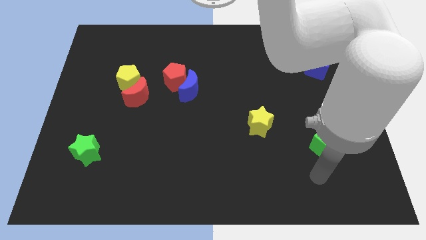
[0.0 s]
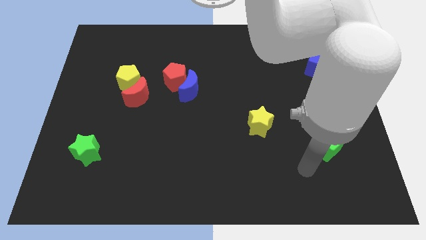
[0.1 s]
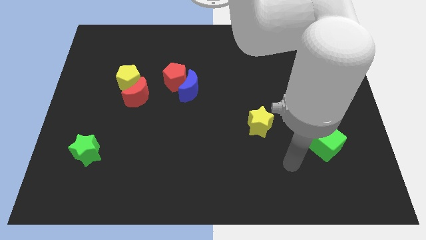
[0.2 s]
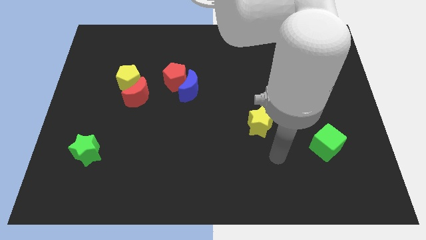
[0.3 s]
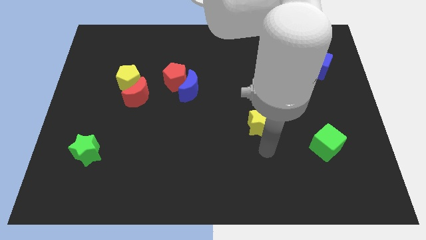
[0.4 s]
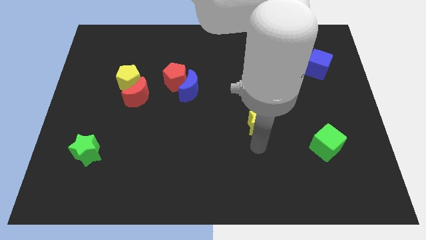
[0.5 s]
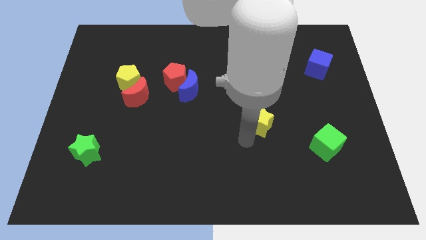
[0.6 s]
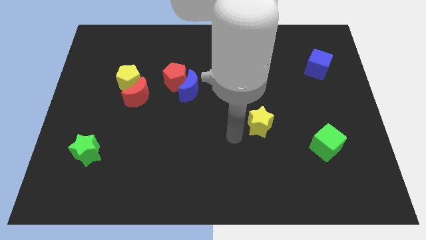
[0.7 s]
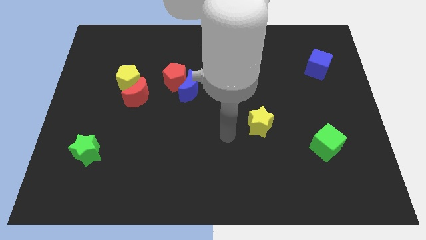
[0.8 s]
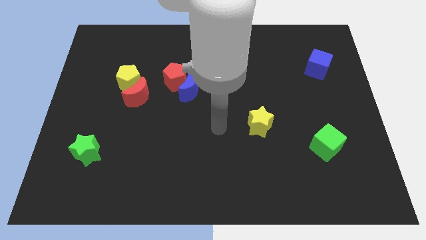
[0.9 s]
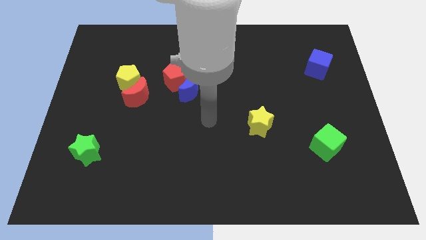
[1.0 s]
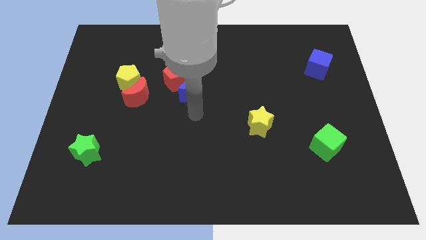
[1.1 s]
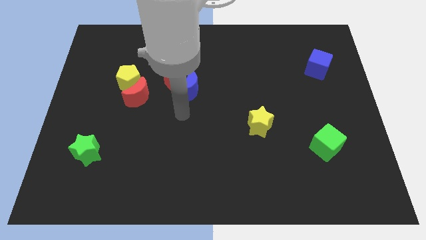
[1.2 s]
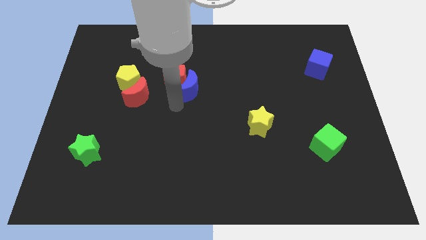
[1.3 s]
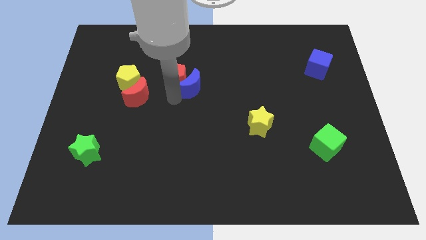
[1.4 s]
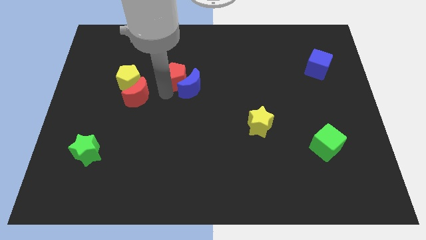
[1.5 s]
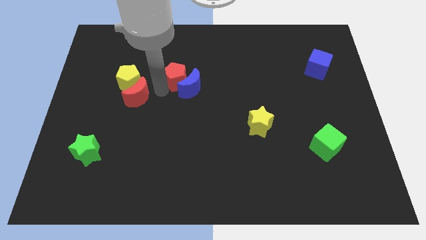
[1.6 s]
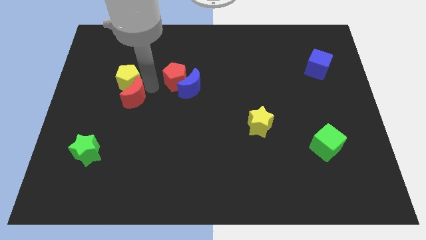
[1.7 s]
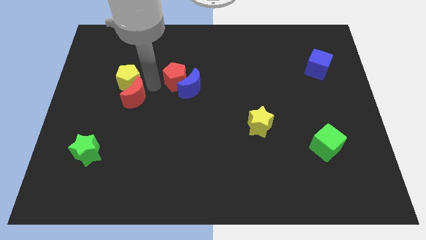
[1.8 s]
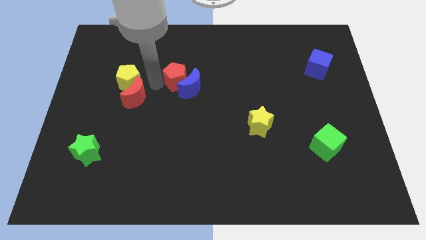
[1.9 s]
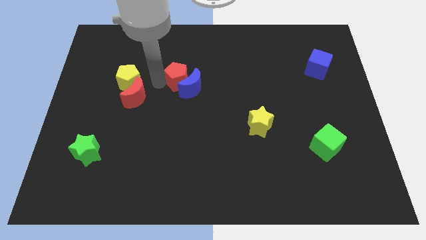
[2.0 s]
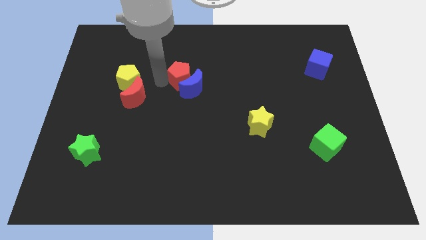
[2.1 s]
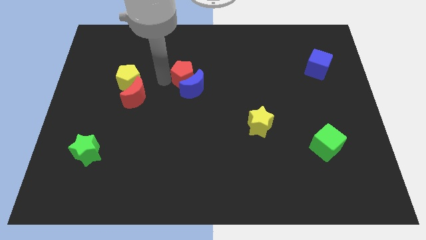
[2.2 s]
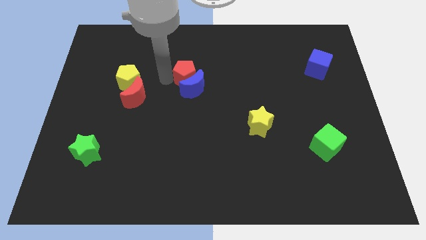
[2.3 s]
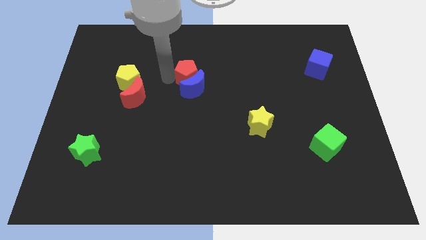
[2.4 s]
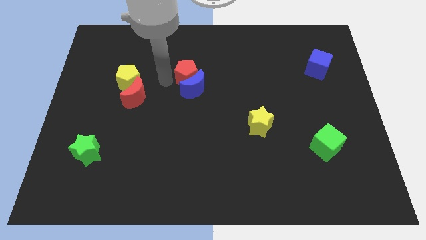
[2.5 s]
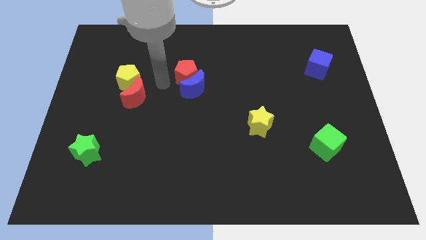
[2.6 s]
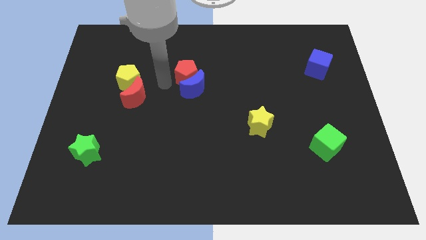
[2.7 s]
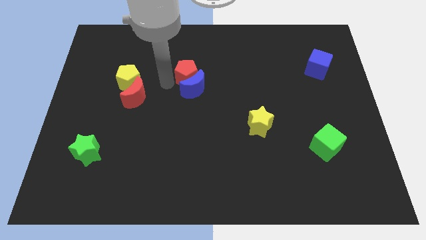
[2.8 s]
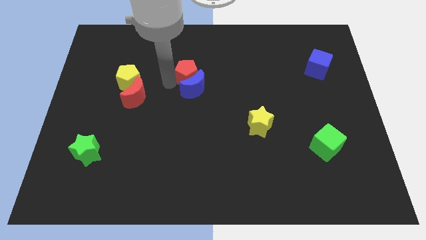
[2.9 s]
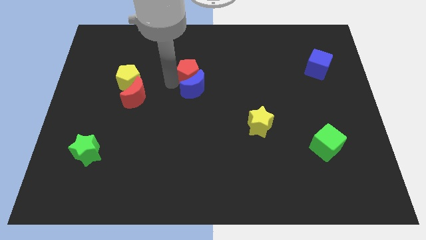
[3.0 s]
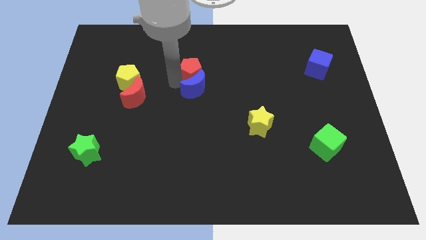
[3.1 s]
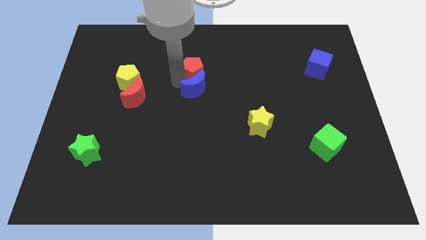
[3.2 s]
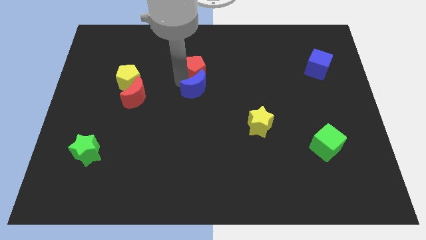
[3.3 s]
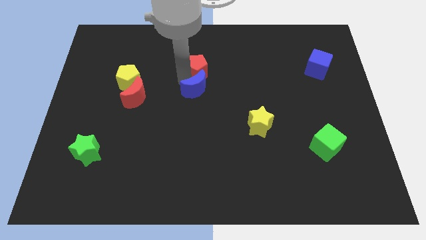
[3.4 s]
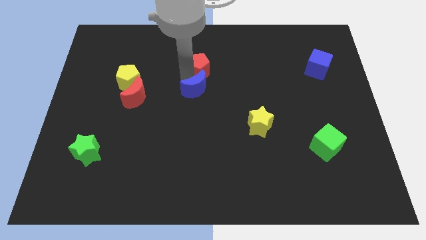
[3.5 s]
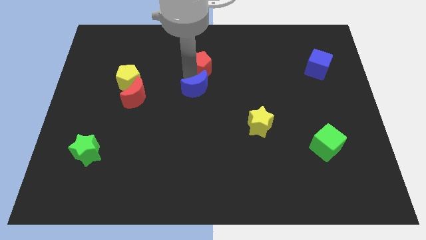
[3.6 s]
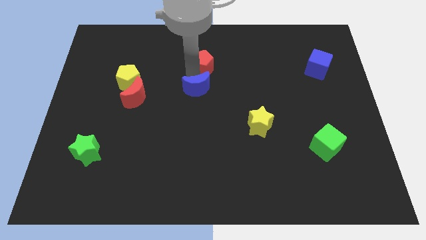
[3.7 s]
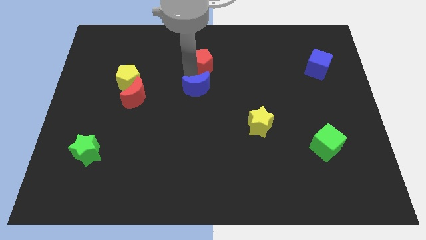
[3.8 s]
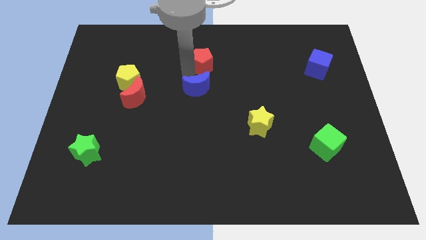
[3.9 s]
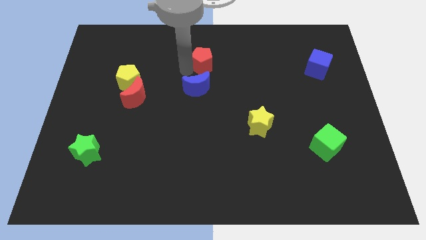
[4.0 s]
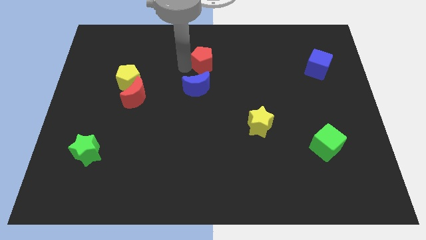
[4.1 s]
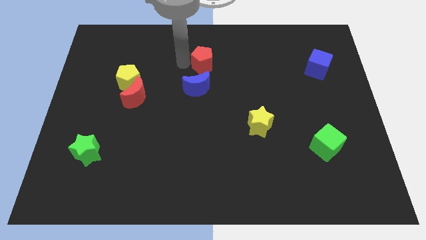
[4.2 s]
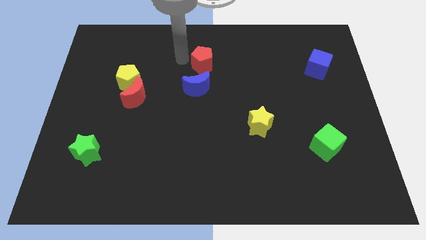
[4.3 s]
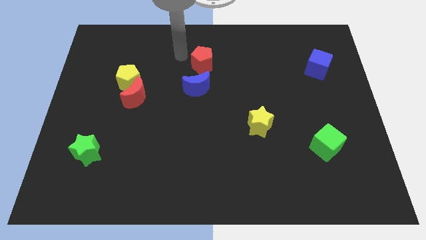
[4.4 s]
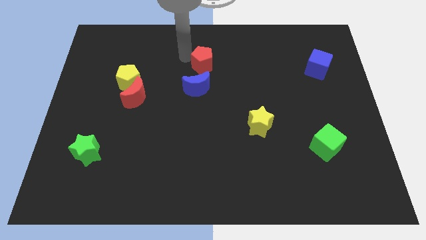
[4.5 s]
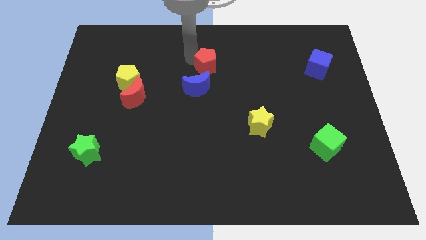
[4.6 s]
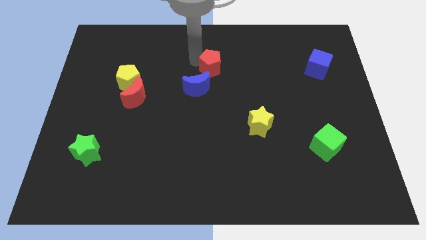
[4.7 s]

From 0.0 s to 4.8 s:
move the red pentagon somewhat to the right

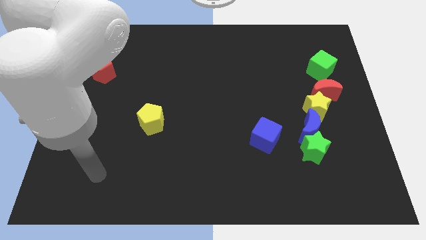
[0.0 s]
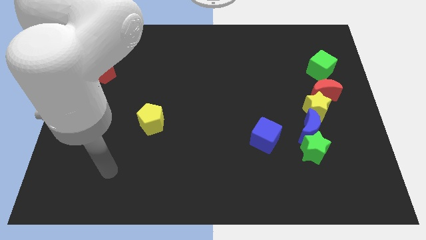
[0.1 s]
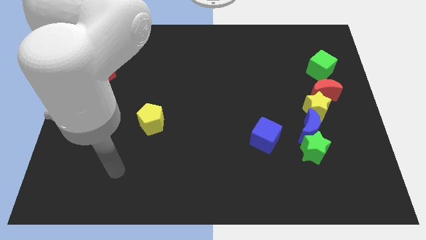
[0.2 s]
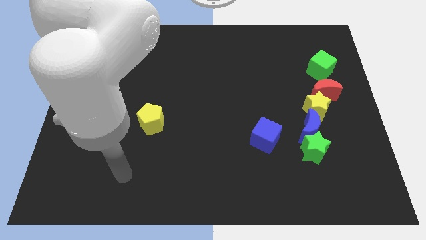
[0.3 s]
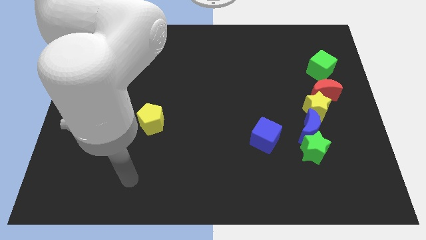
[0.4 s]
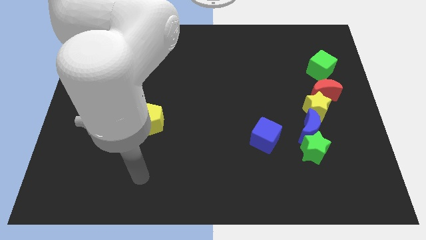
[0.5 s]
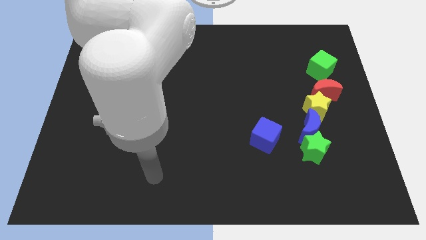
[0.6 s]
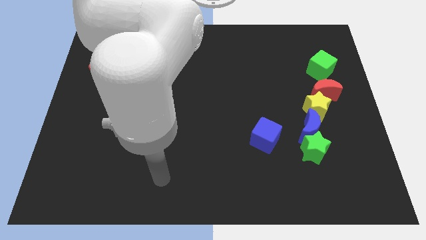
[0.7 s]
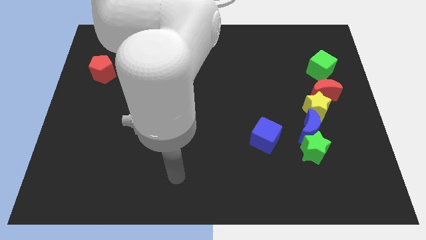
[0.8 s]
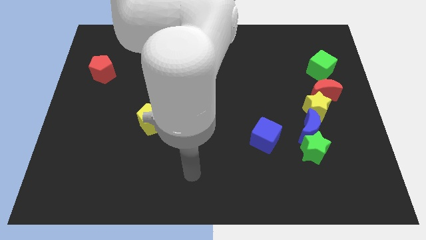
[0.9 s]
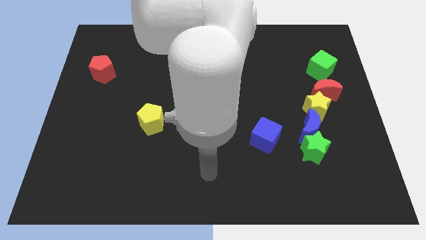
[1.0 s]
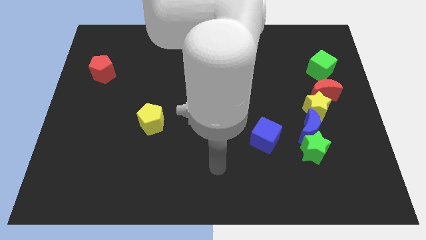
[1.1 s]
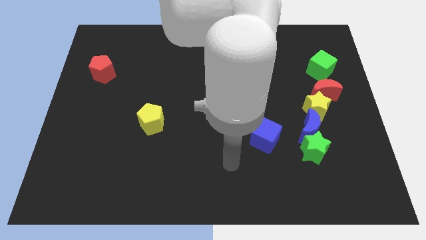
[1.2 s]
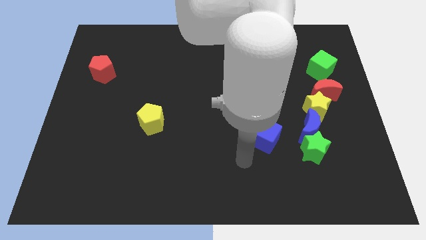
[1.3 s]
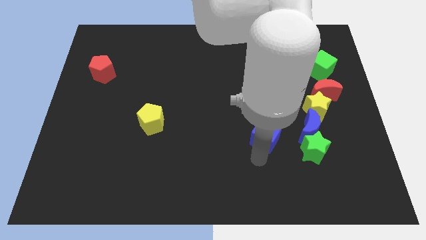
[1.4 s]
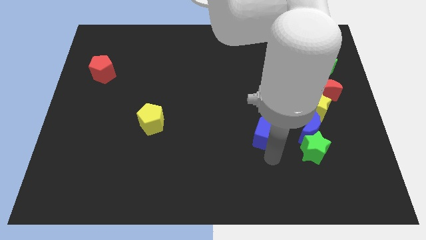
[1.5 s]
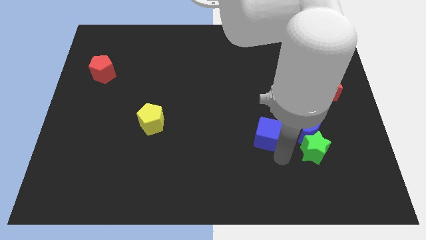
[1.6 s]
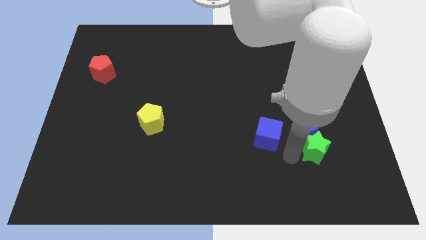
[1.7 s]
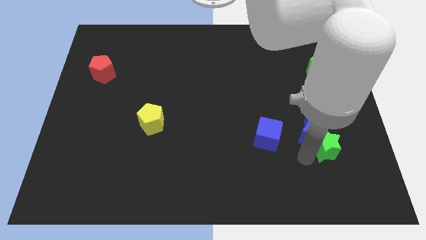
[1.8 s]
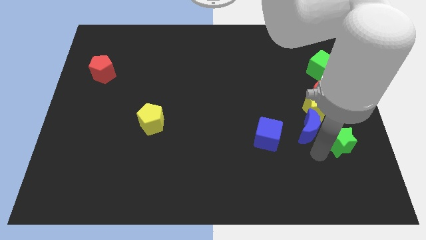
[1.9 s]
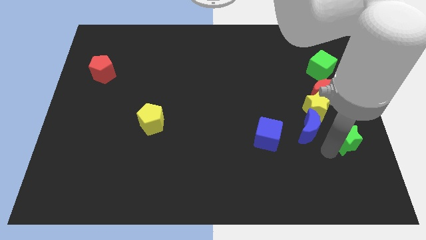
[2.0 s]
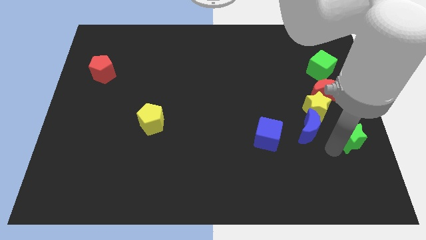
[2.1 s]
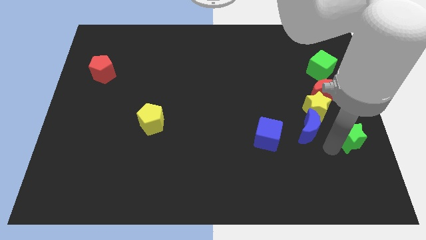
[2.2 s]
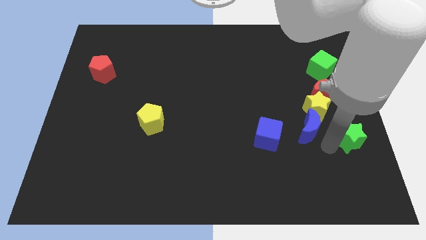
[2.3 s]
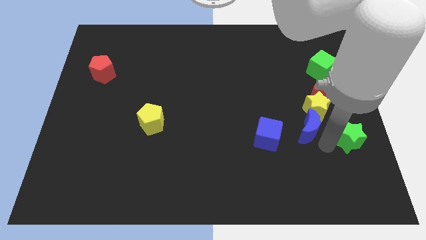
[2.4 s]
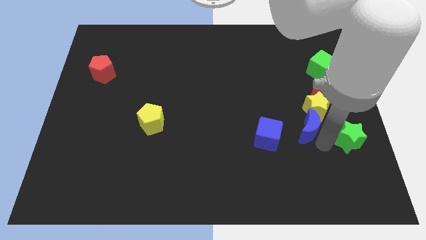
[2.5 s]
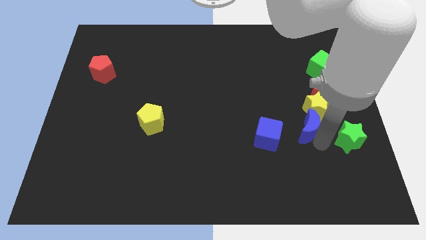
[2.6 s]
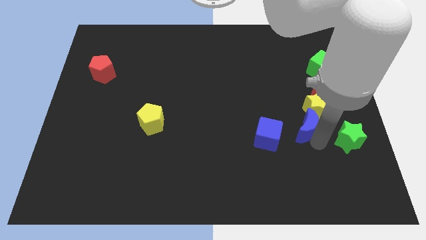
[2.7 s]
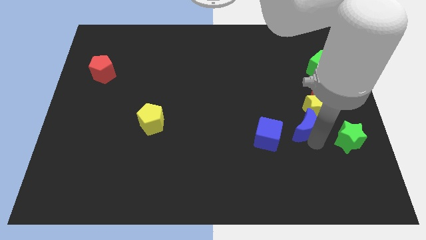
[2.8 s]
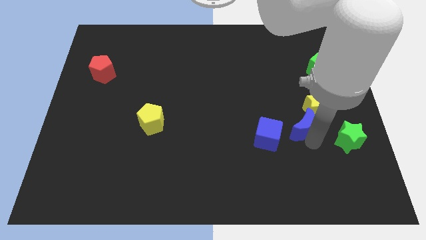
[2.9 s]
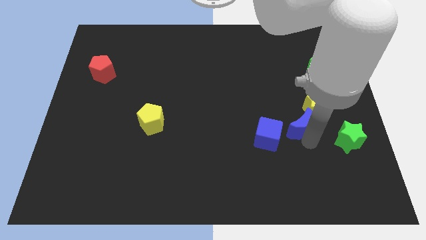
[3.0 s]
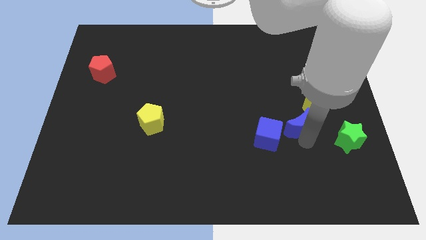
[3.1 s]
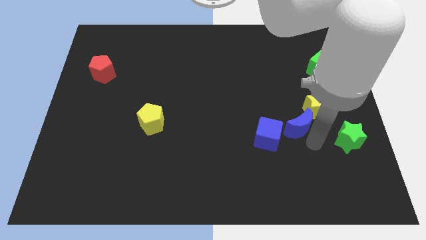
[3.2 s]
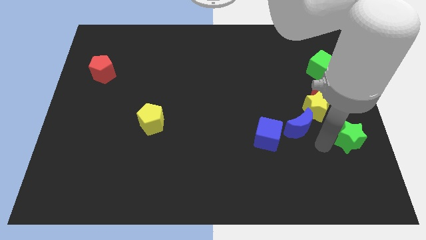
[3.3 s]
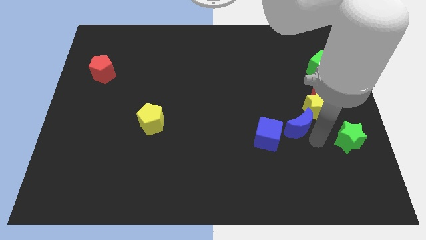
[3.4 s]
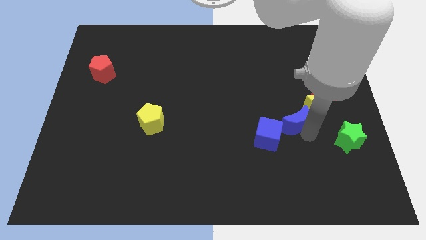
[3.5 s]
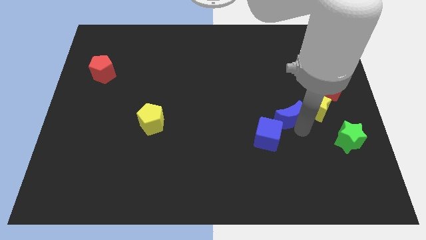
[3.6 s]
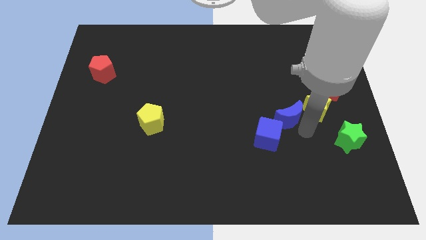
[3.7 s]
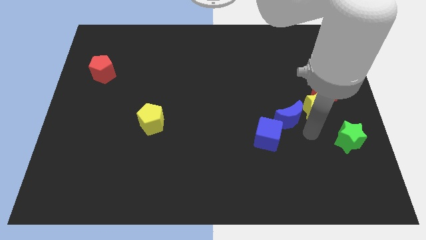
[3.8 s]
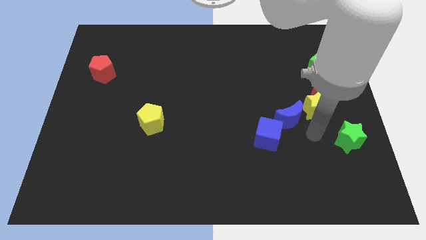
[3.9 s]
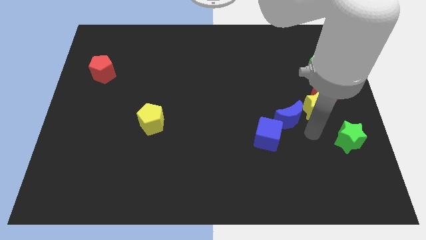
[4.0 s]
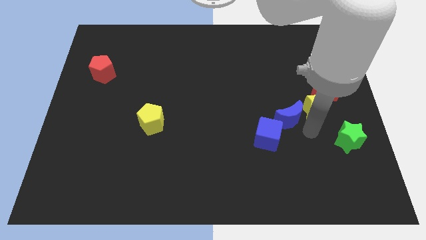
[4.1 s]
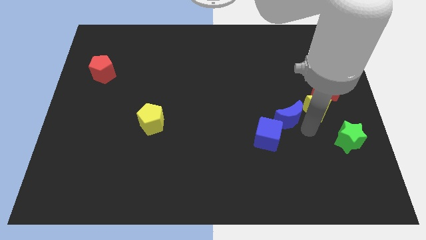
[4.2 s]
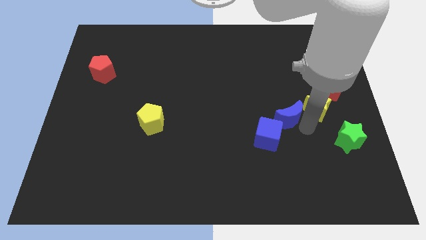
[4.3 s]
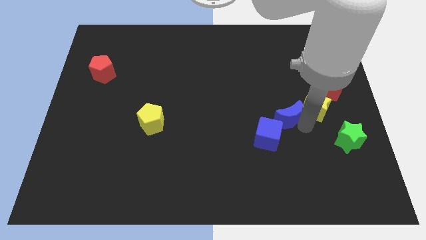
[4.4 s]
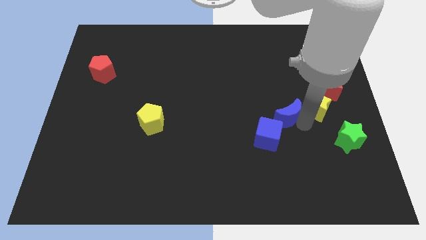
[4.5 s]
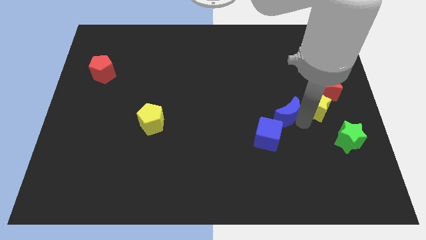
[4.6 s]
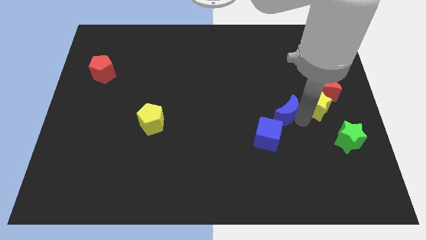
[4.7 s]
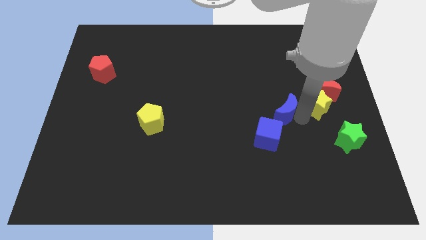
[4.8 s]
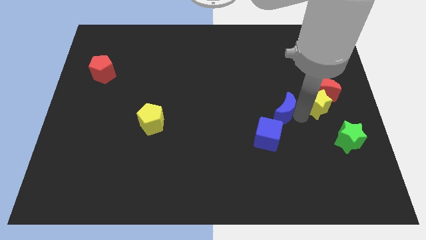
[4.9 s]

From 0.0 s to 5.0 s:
slightly move the blue moon upwards and then left
